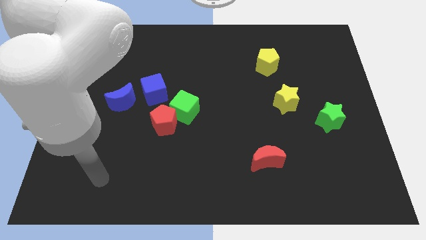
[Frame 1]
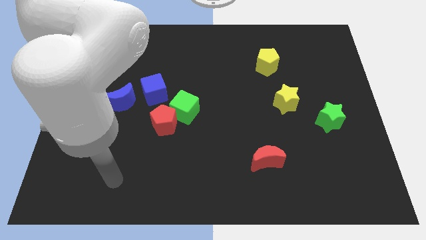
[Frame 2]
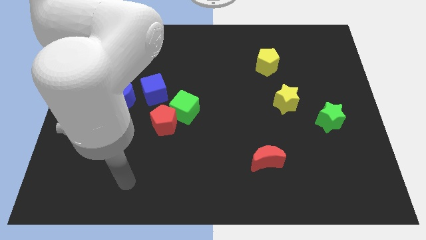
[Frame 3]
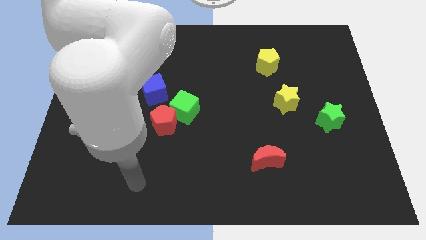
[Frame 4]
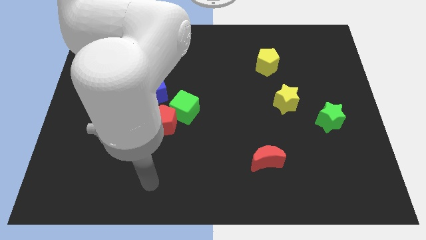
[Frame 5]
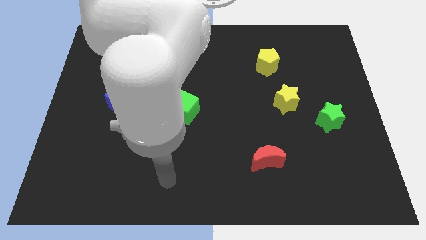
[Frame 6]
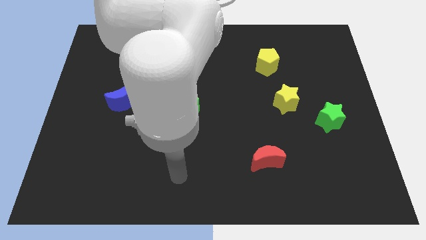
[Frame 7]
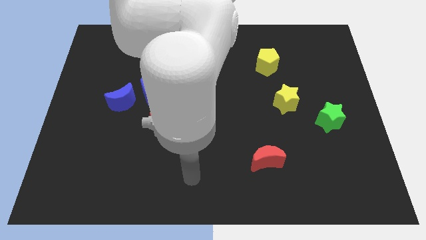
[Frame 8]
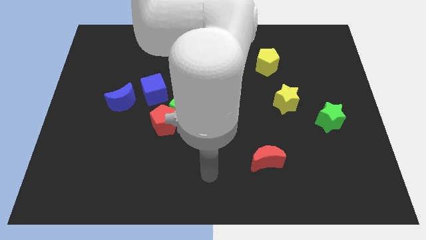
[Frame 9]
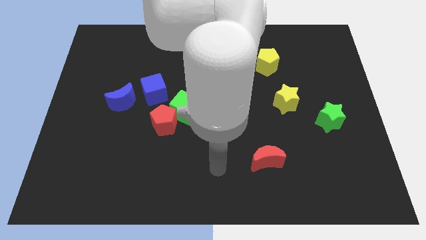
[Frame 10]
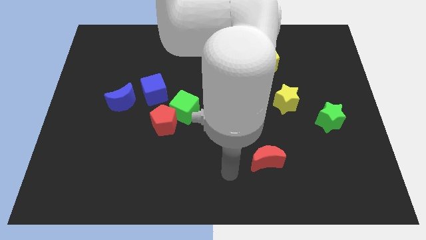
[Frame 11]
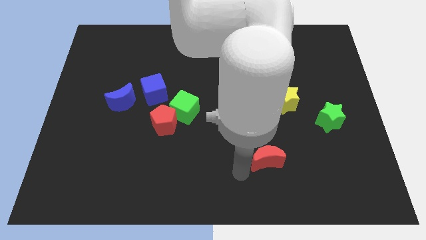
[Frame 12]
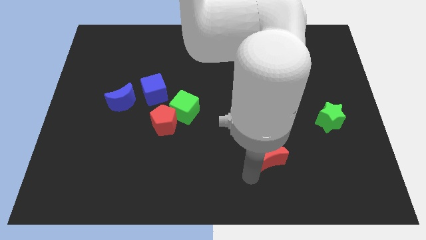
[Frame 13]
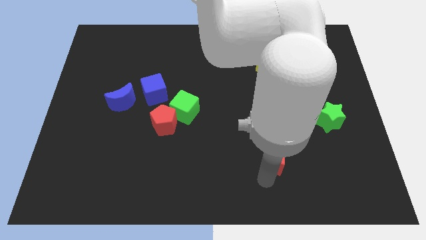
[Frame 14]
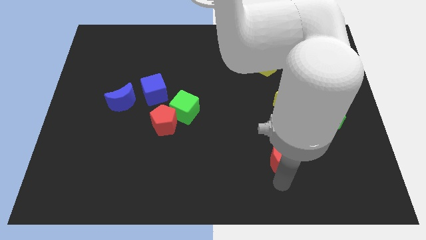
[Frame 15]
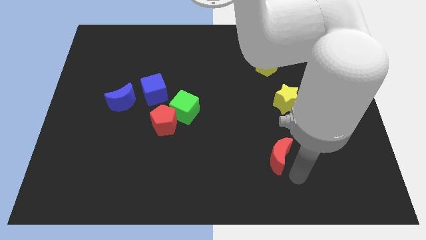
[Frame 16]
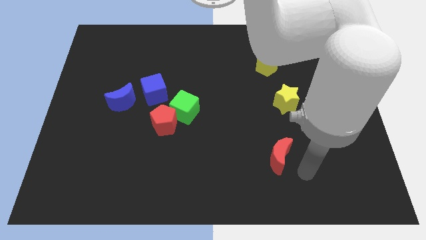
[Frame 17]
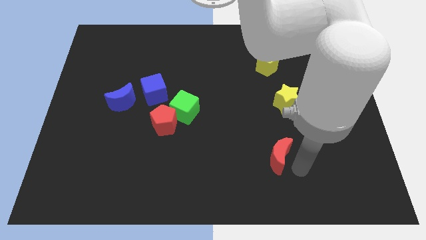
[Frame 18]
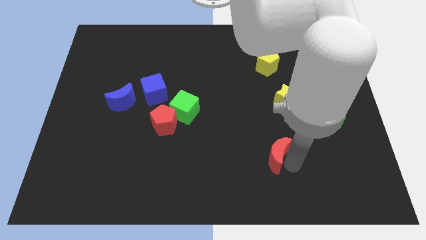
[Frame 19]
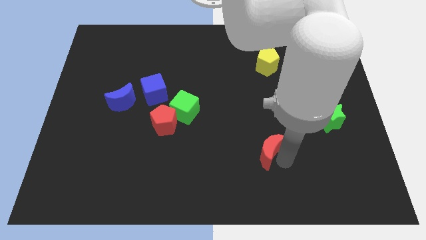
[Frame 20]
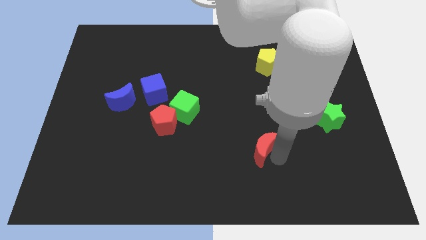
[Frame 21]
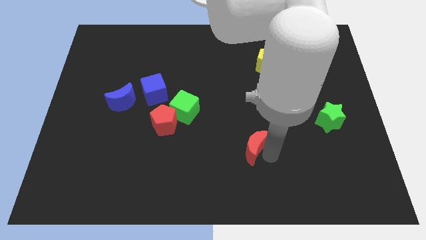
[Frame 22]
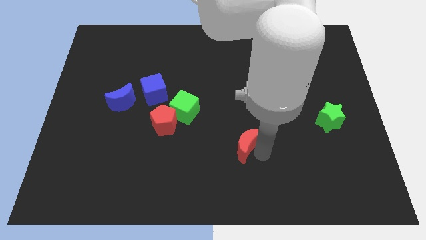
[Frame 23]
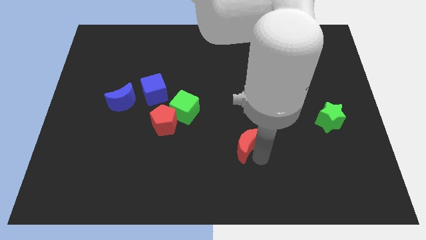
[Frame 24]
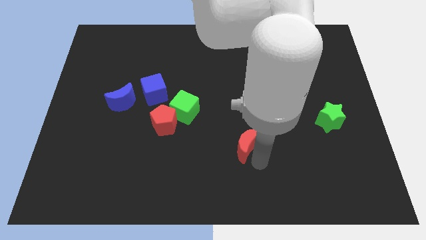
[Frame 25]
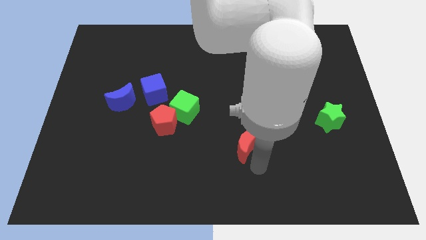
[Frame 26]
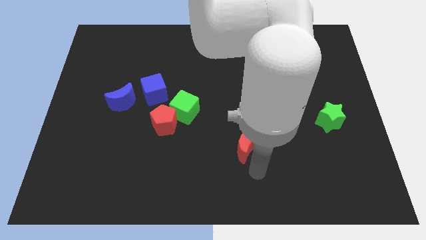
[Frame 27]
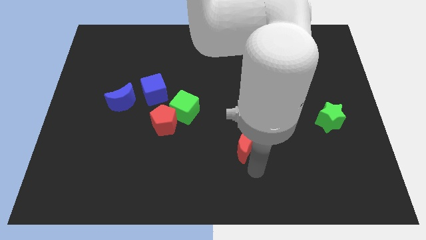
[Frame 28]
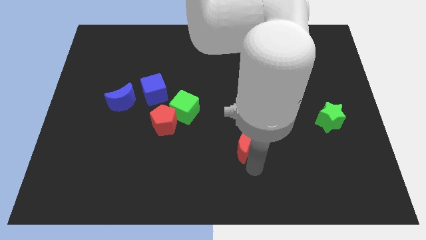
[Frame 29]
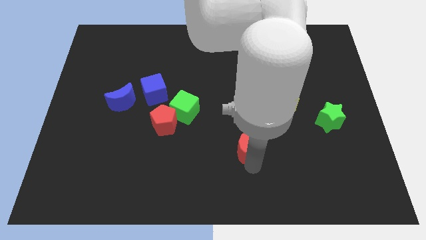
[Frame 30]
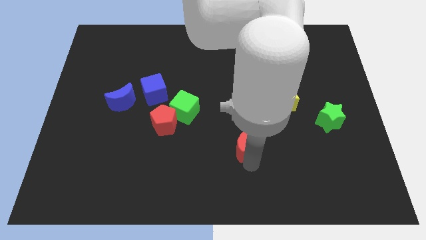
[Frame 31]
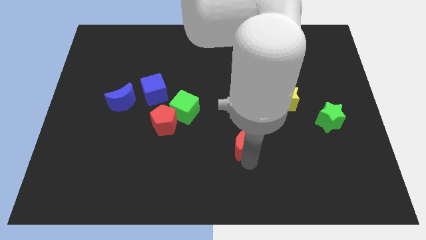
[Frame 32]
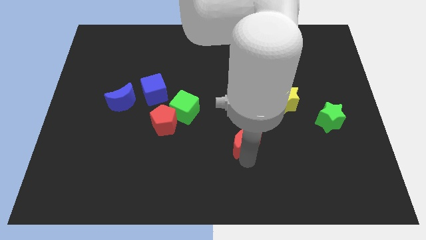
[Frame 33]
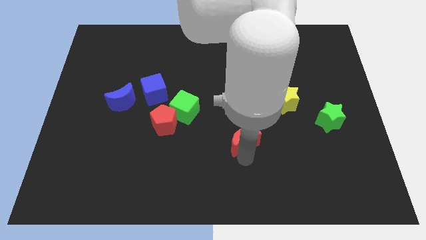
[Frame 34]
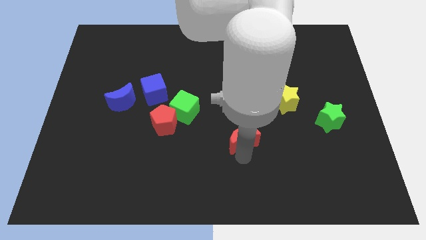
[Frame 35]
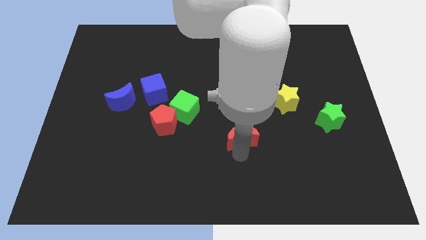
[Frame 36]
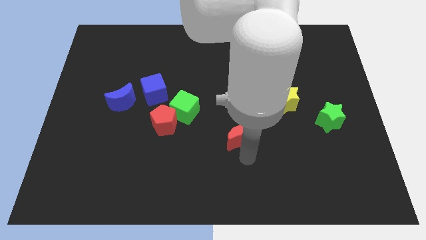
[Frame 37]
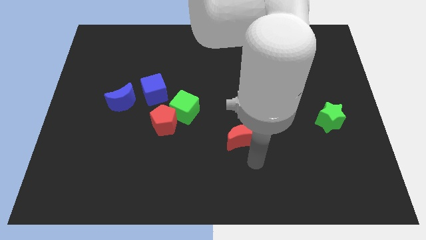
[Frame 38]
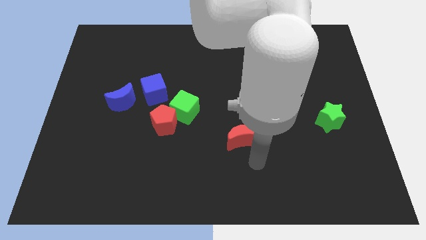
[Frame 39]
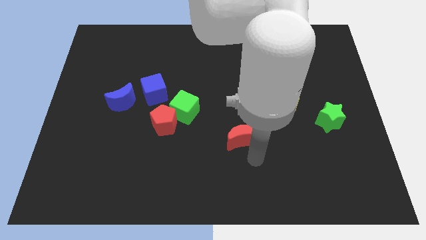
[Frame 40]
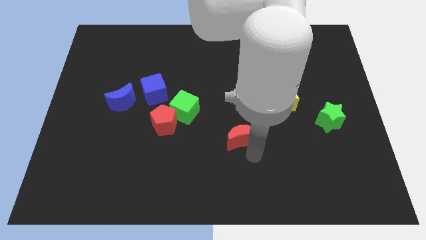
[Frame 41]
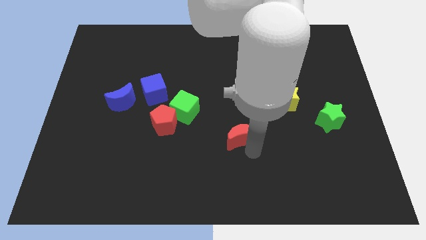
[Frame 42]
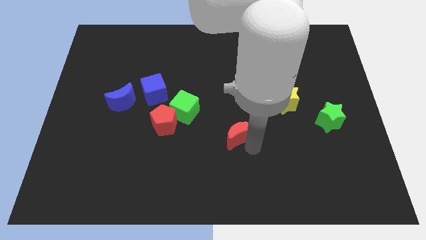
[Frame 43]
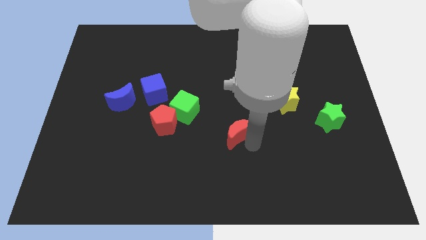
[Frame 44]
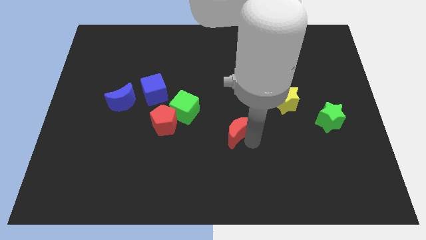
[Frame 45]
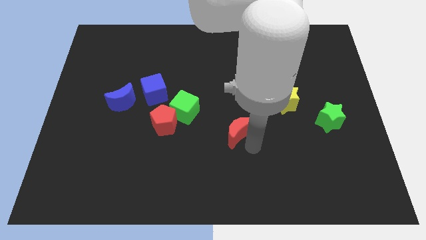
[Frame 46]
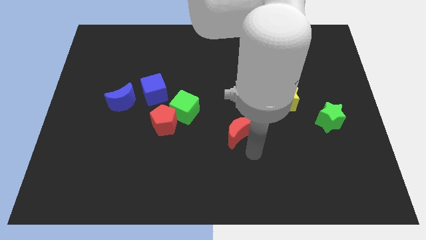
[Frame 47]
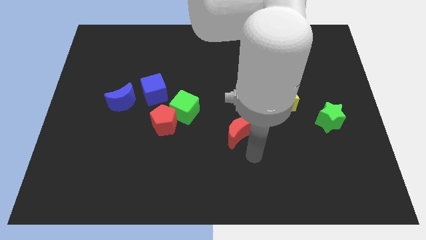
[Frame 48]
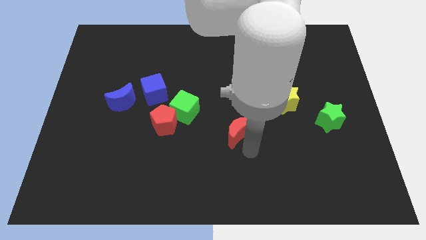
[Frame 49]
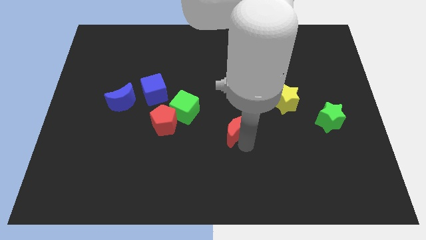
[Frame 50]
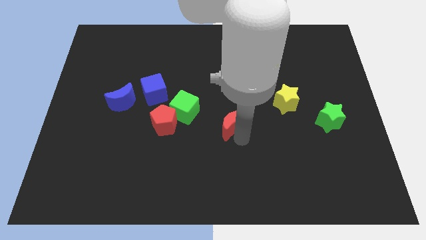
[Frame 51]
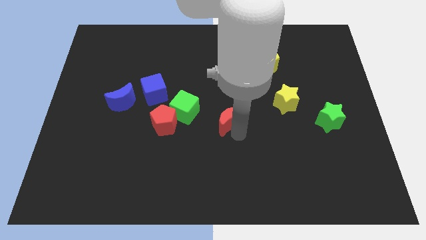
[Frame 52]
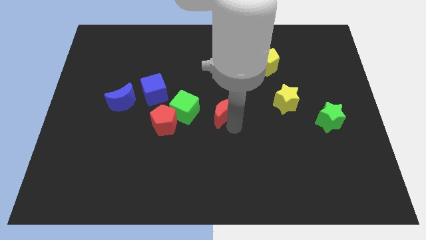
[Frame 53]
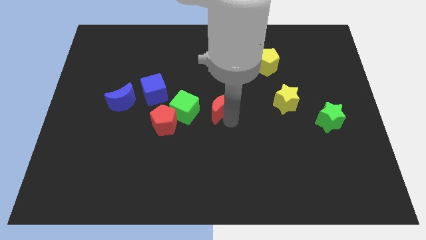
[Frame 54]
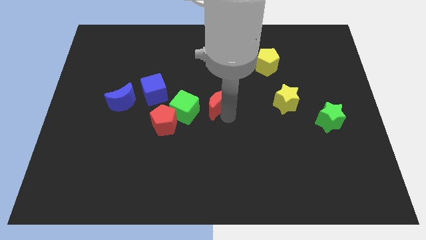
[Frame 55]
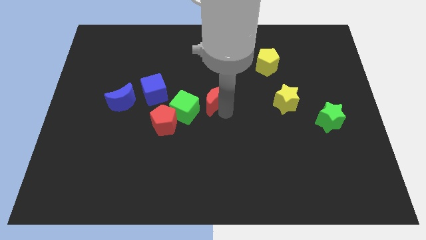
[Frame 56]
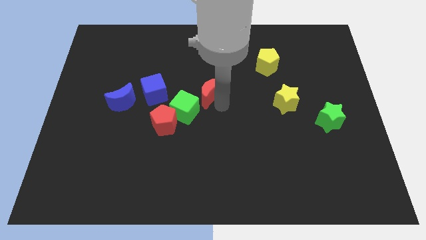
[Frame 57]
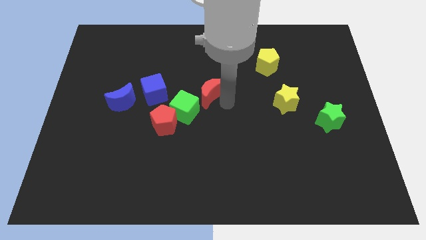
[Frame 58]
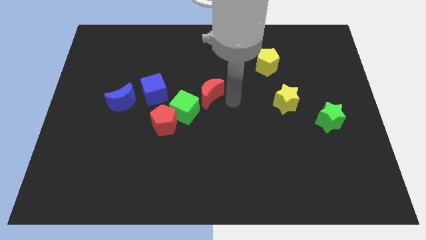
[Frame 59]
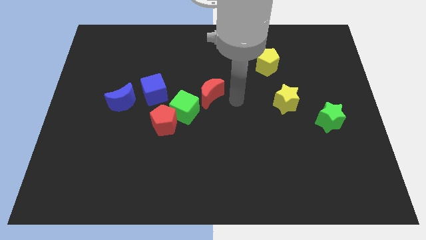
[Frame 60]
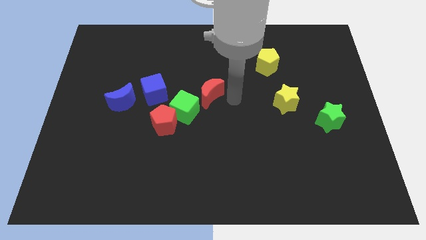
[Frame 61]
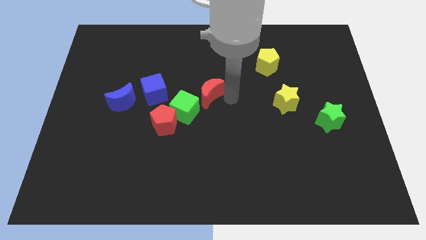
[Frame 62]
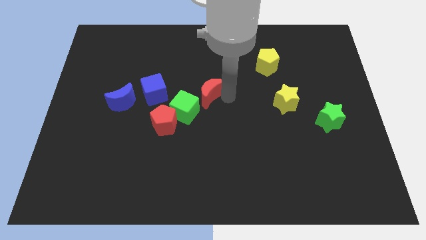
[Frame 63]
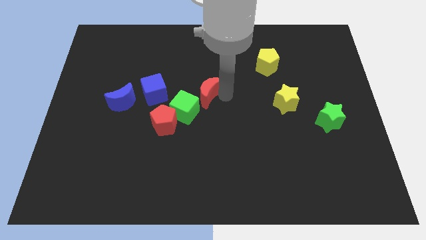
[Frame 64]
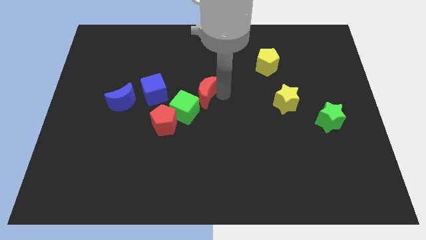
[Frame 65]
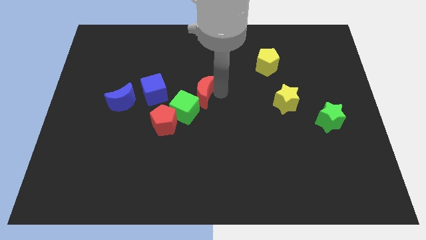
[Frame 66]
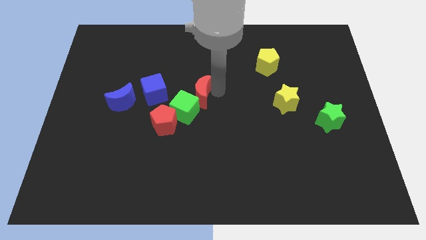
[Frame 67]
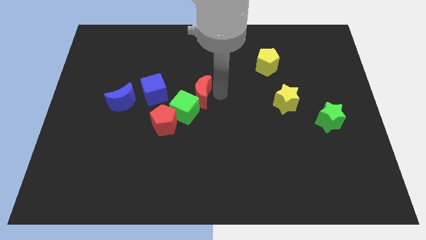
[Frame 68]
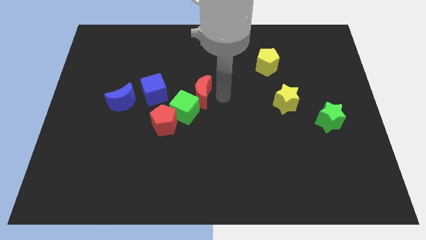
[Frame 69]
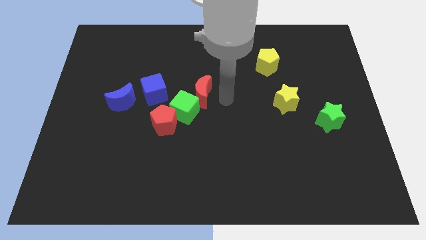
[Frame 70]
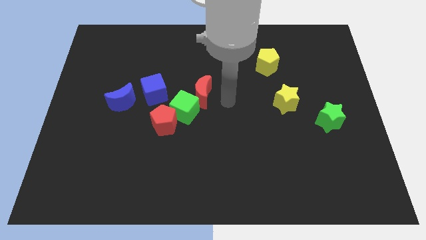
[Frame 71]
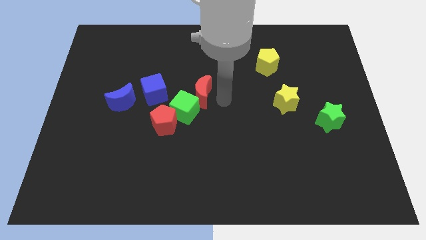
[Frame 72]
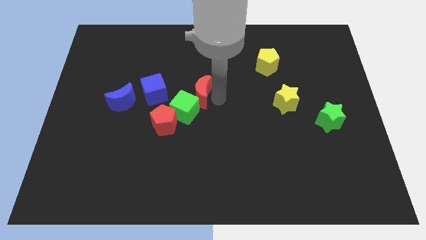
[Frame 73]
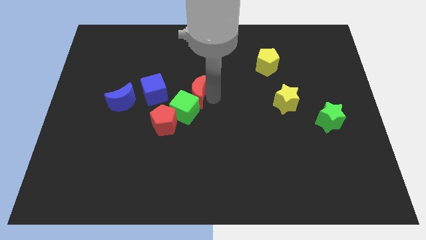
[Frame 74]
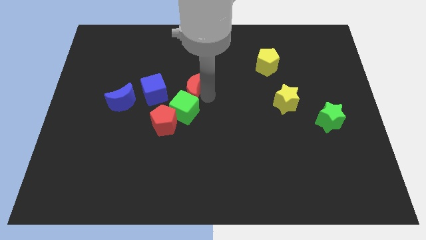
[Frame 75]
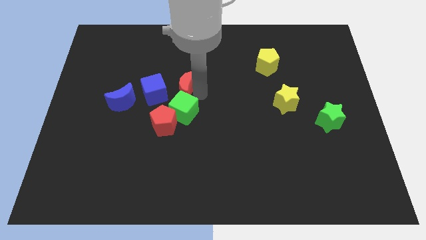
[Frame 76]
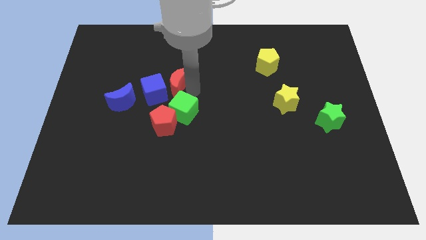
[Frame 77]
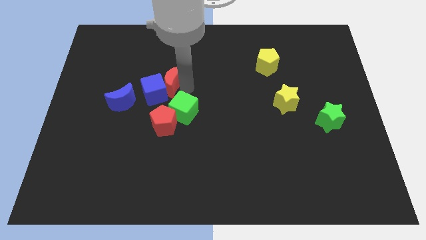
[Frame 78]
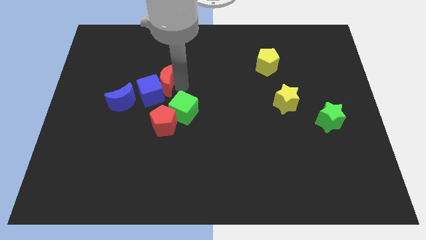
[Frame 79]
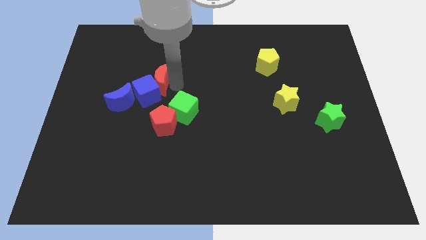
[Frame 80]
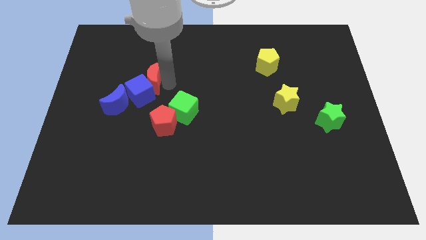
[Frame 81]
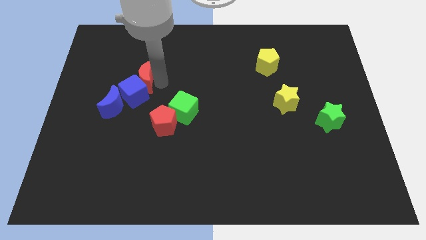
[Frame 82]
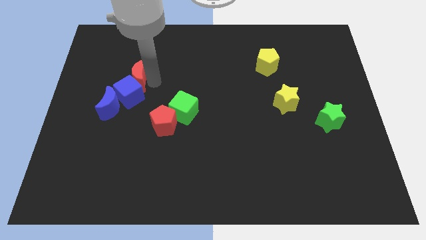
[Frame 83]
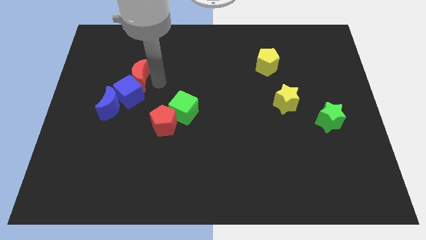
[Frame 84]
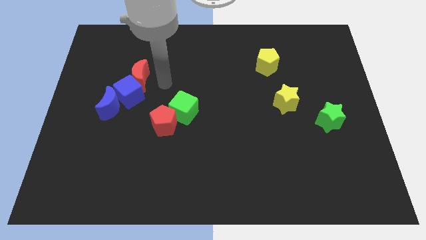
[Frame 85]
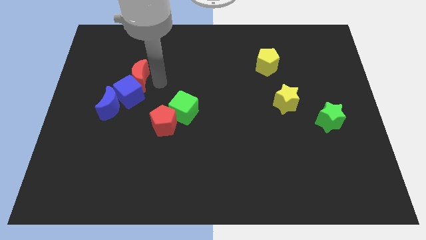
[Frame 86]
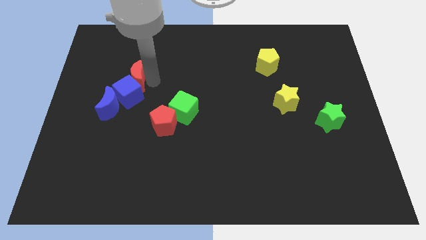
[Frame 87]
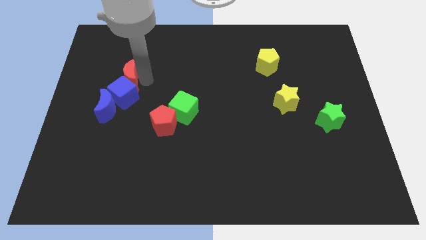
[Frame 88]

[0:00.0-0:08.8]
put the red moon above the blue moon
